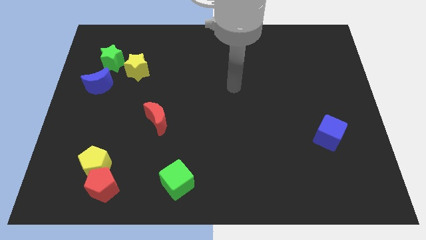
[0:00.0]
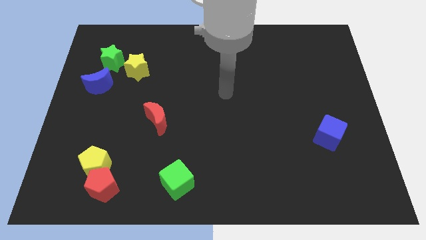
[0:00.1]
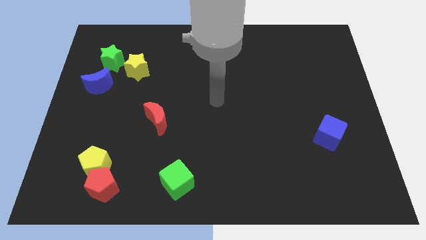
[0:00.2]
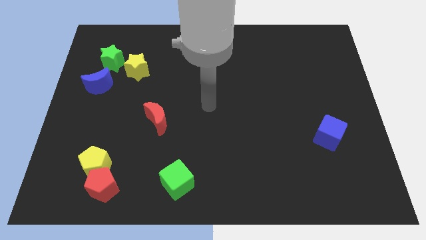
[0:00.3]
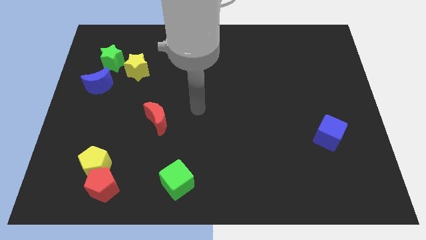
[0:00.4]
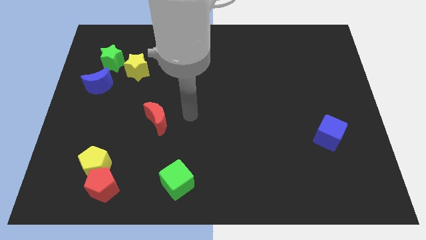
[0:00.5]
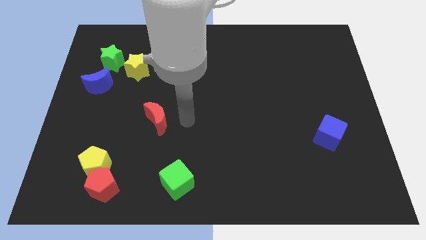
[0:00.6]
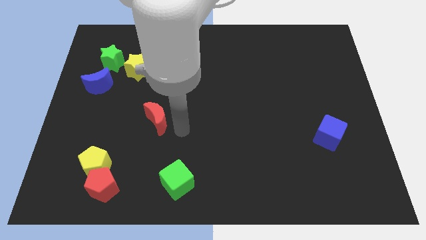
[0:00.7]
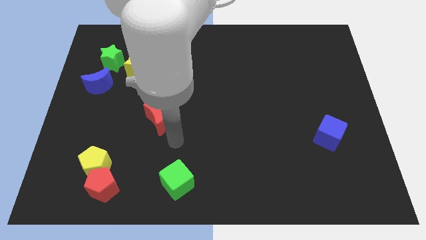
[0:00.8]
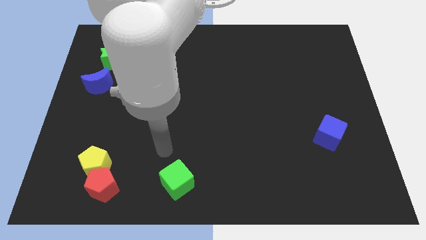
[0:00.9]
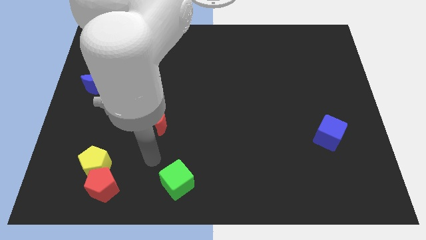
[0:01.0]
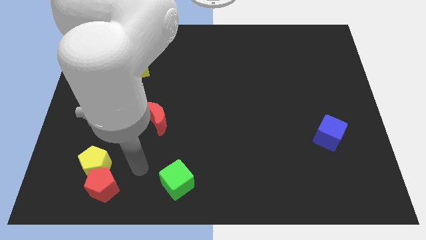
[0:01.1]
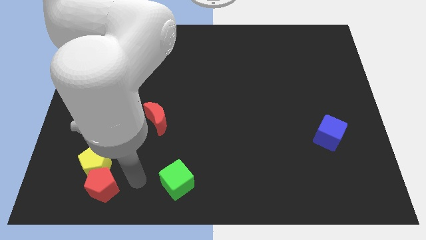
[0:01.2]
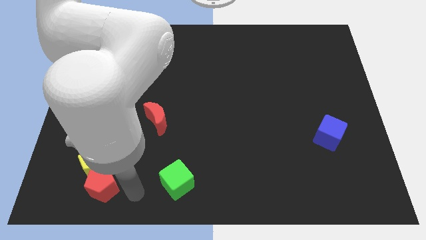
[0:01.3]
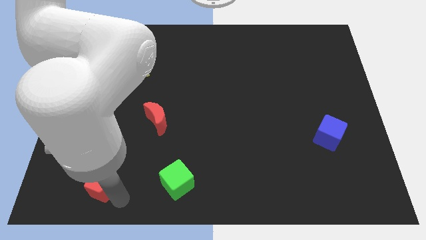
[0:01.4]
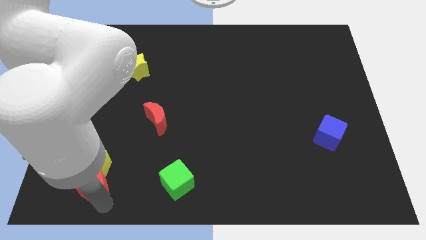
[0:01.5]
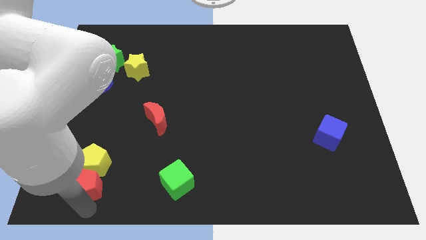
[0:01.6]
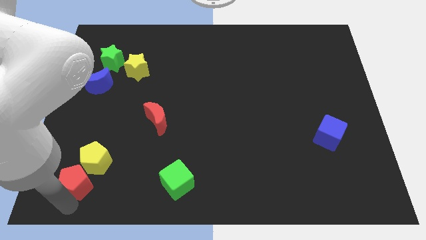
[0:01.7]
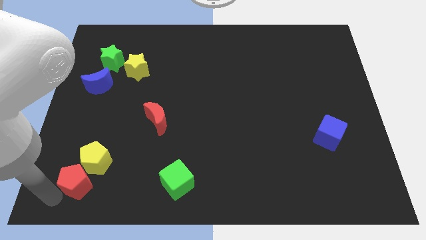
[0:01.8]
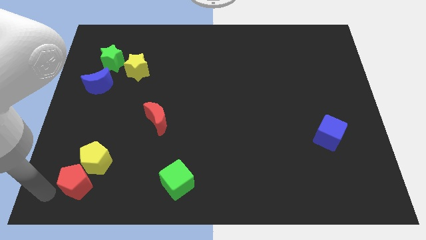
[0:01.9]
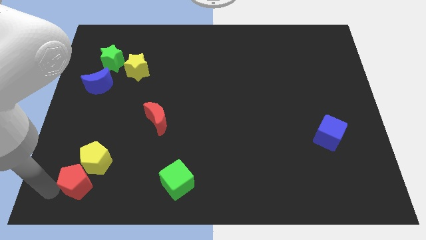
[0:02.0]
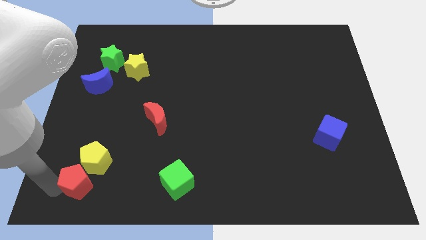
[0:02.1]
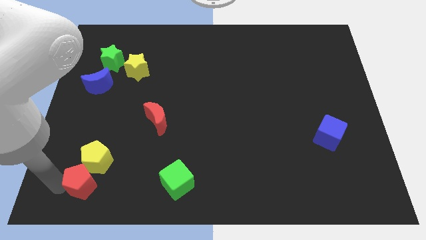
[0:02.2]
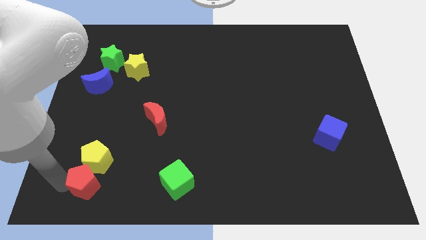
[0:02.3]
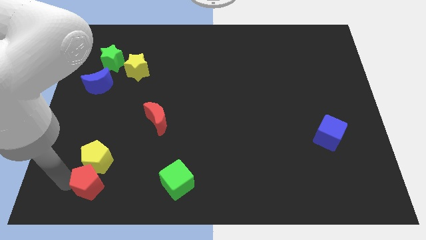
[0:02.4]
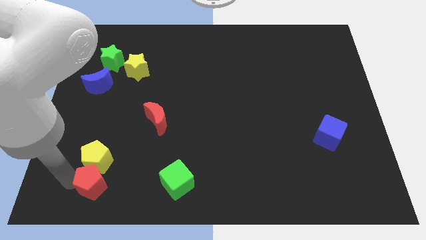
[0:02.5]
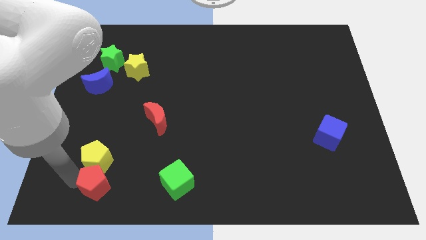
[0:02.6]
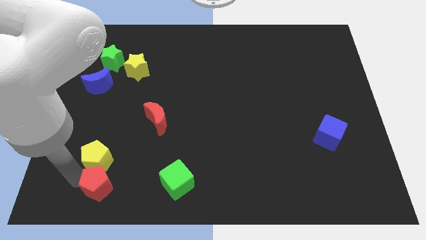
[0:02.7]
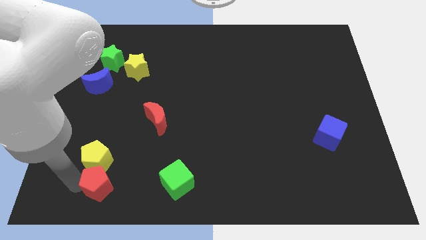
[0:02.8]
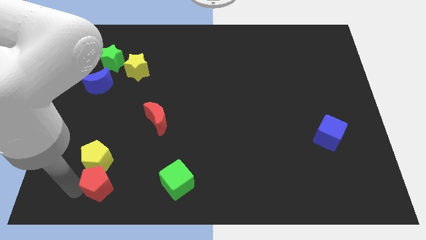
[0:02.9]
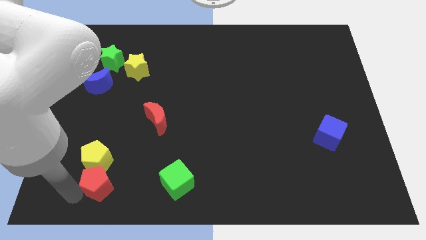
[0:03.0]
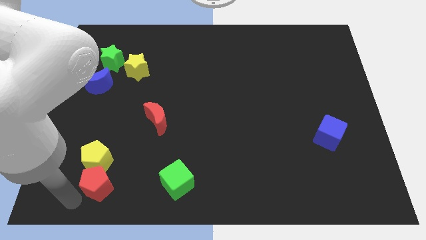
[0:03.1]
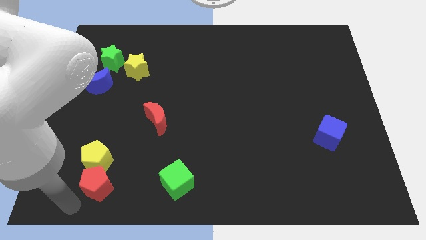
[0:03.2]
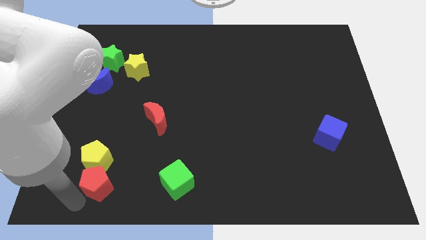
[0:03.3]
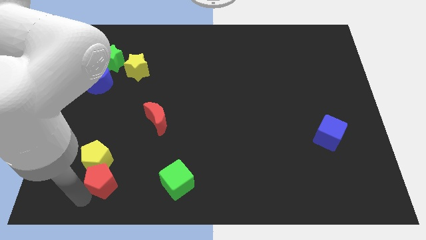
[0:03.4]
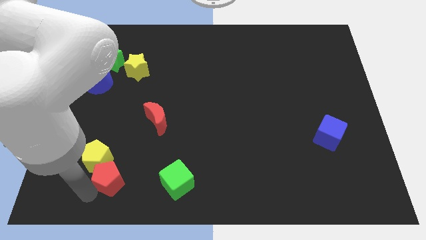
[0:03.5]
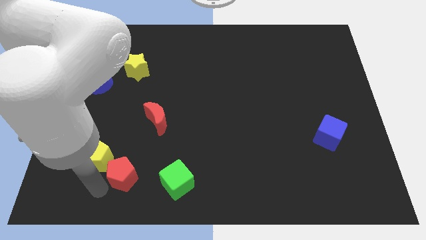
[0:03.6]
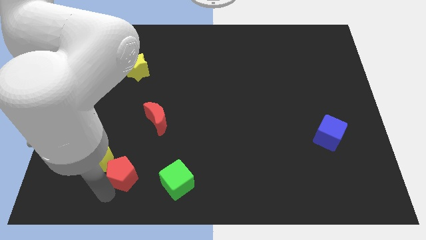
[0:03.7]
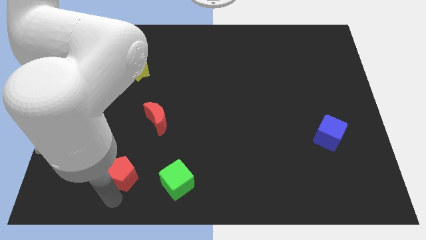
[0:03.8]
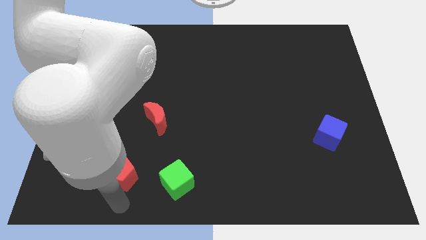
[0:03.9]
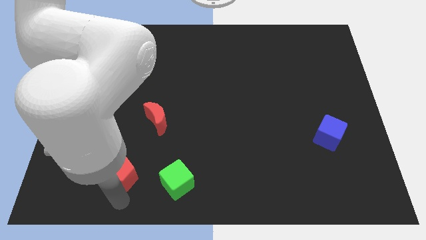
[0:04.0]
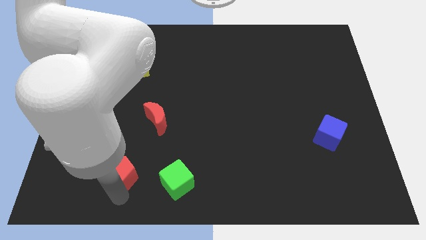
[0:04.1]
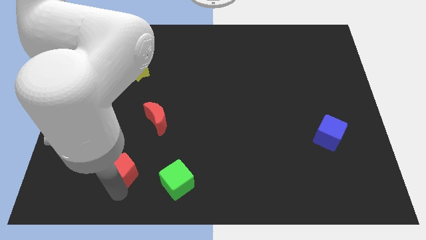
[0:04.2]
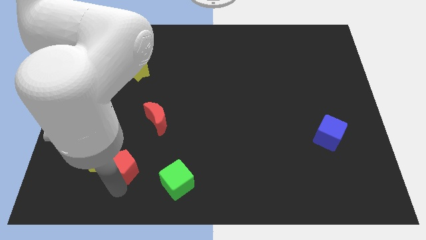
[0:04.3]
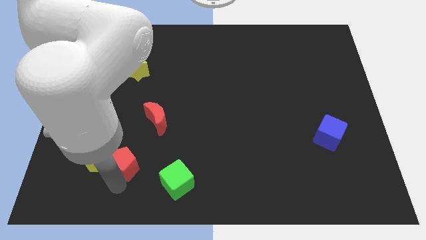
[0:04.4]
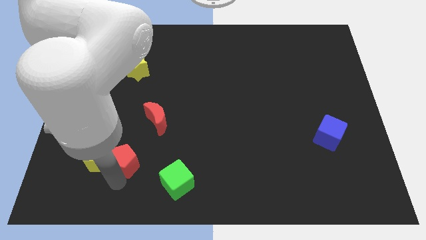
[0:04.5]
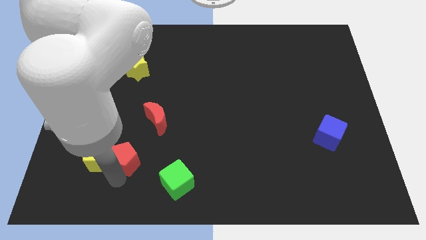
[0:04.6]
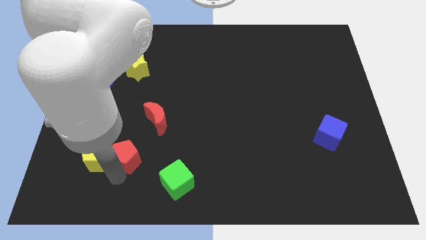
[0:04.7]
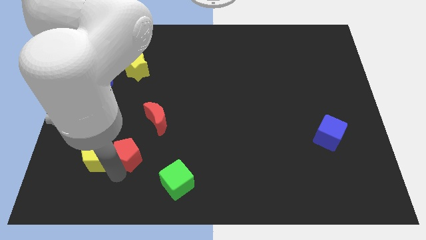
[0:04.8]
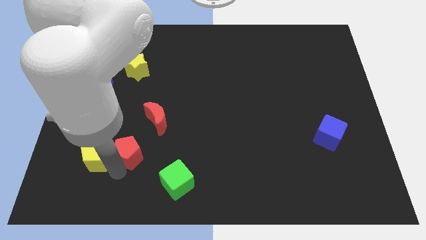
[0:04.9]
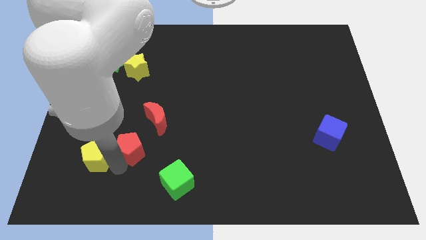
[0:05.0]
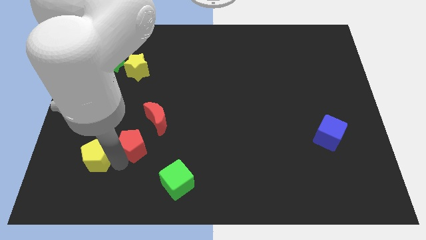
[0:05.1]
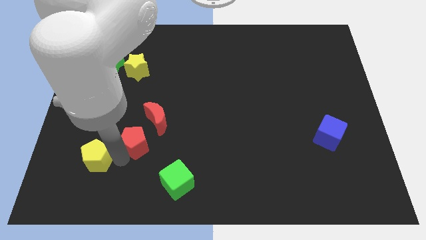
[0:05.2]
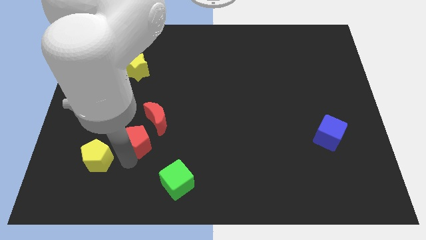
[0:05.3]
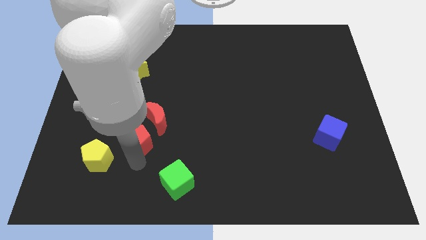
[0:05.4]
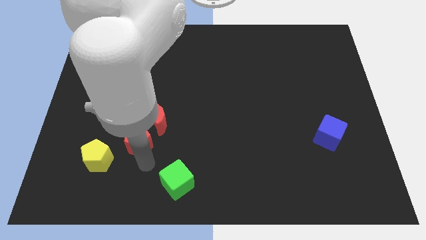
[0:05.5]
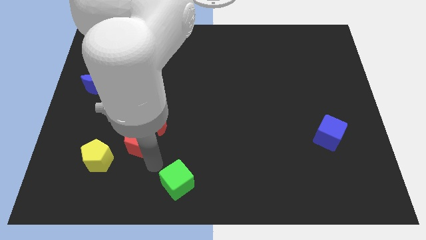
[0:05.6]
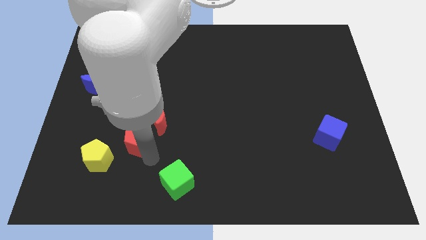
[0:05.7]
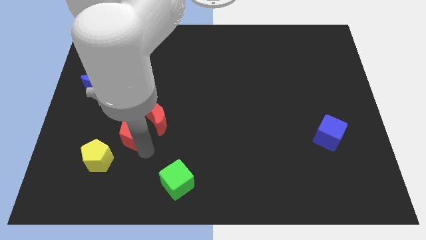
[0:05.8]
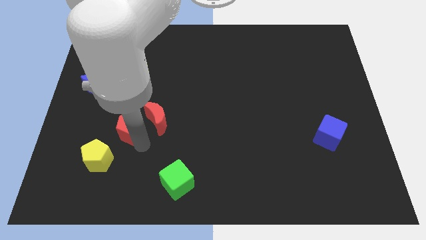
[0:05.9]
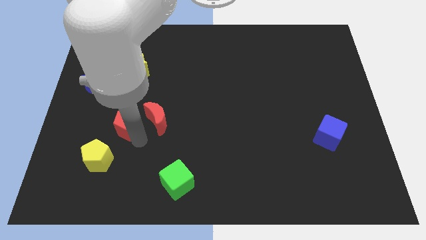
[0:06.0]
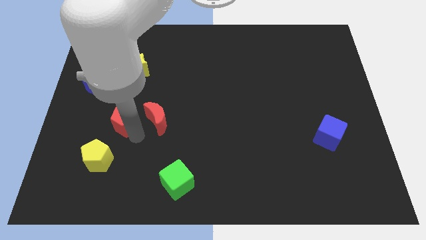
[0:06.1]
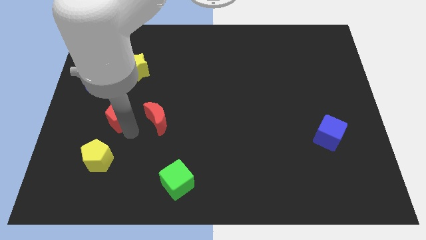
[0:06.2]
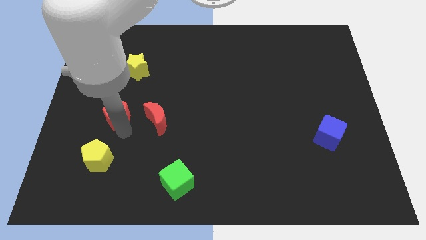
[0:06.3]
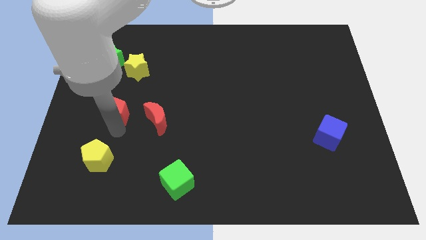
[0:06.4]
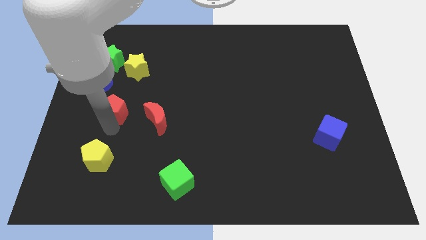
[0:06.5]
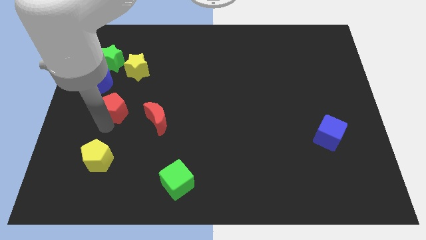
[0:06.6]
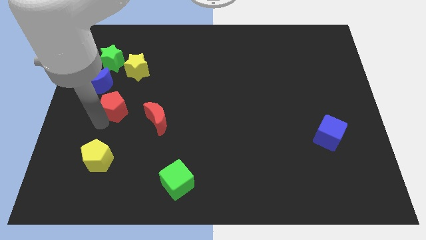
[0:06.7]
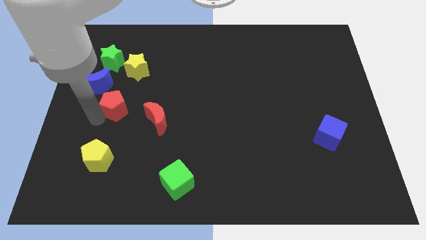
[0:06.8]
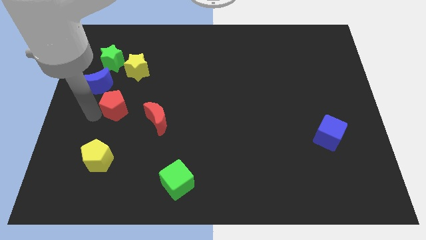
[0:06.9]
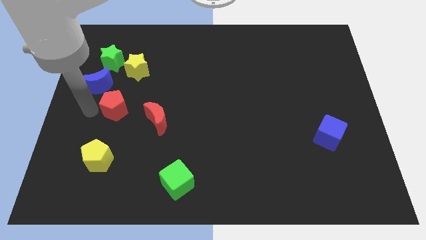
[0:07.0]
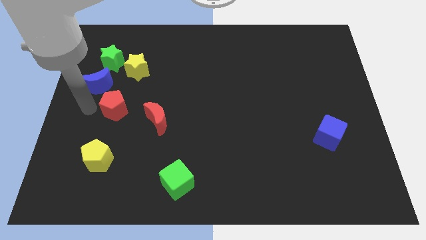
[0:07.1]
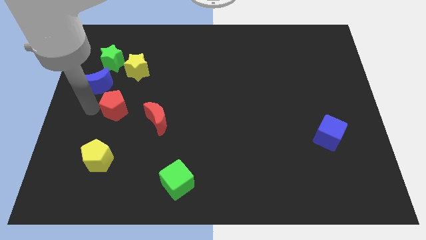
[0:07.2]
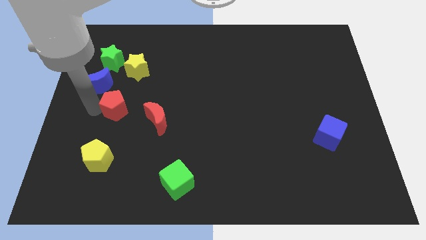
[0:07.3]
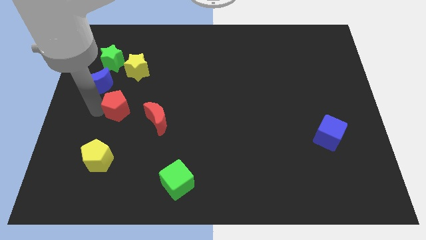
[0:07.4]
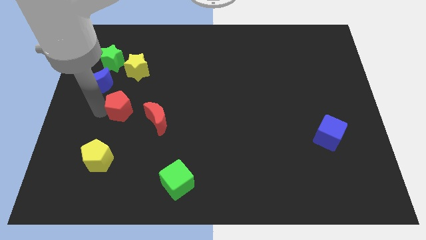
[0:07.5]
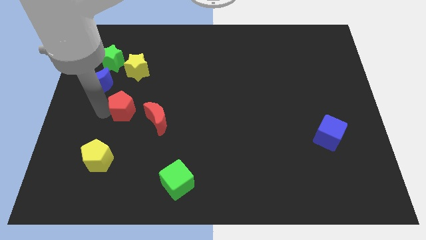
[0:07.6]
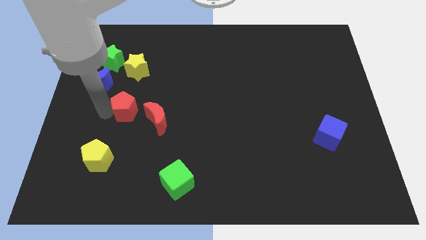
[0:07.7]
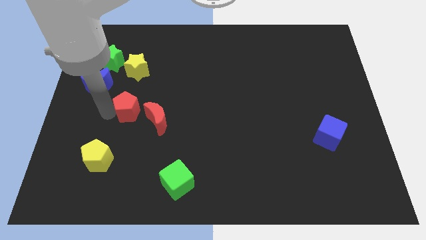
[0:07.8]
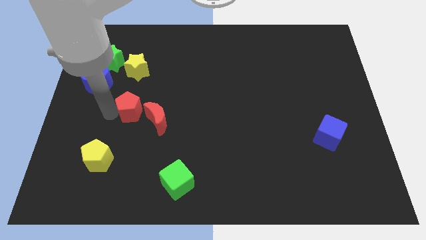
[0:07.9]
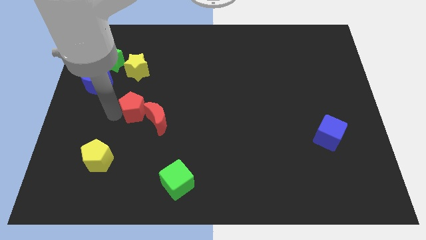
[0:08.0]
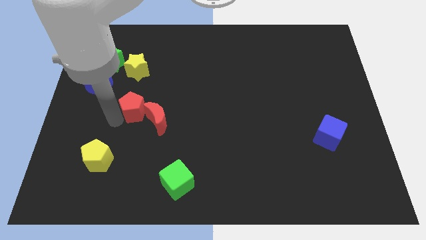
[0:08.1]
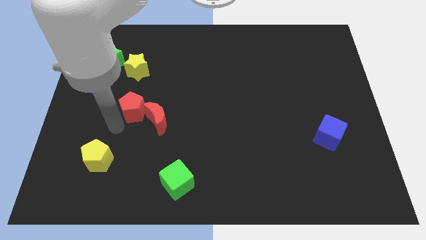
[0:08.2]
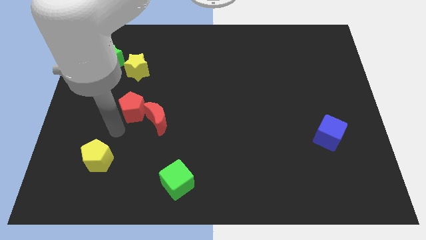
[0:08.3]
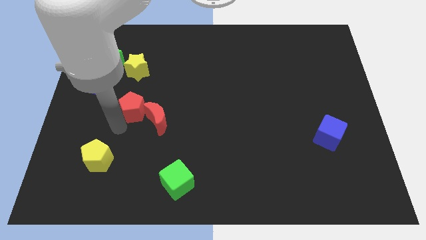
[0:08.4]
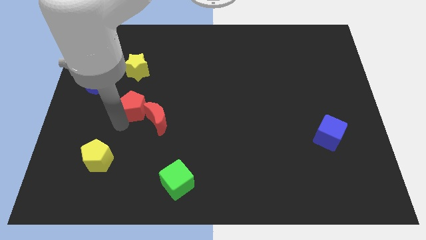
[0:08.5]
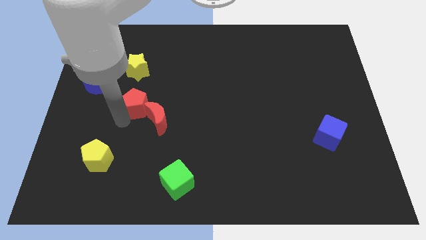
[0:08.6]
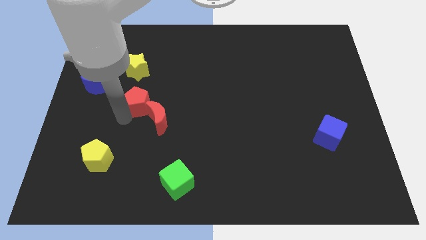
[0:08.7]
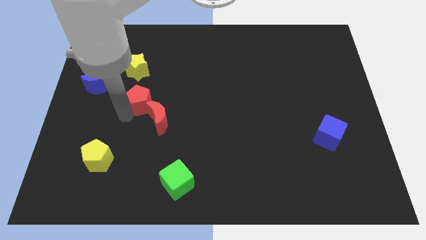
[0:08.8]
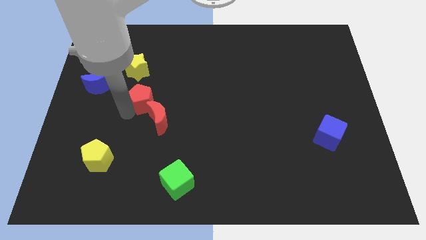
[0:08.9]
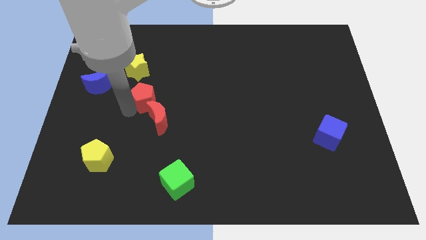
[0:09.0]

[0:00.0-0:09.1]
push the red pentagon to the bottom right of the yellow star
